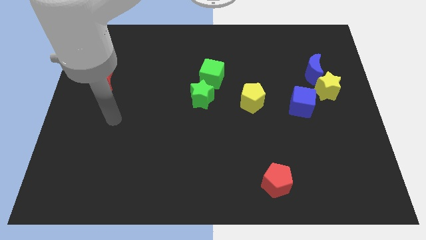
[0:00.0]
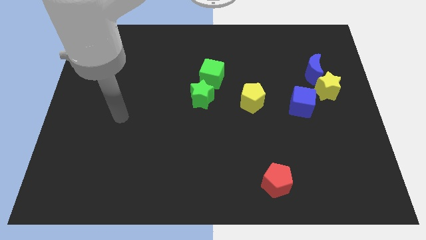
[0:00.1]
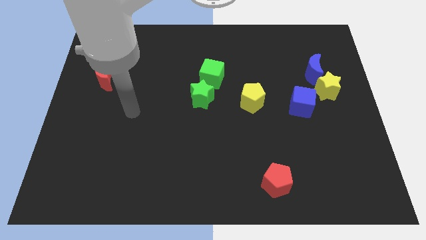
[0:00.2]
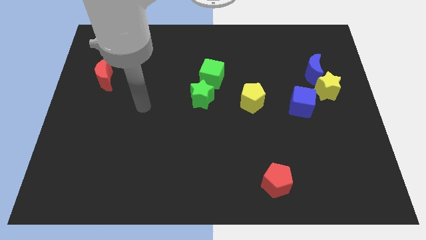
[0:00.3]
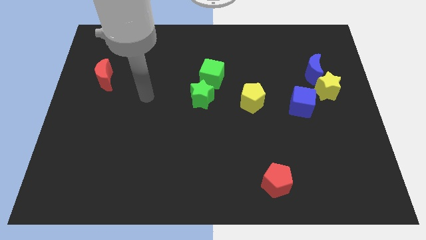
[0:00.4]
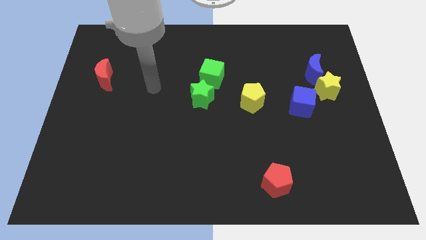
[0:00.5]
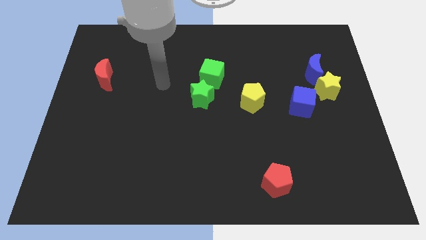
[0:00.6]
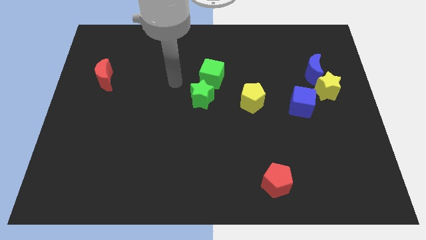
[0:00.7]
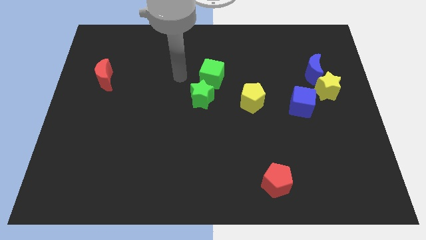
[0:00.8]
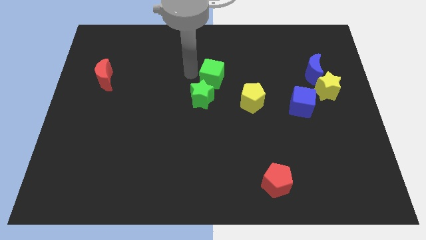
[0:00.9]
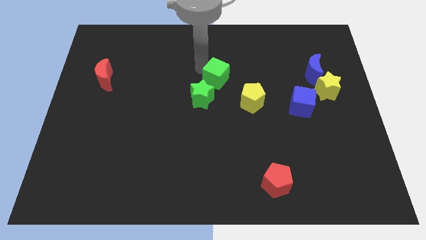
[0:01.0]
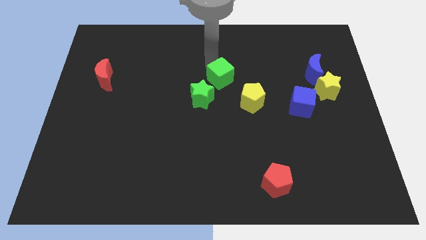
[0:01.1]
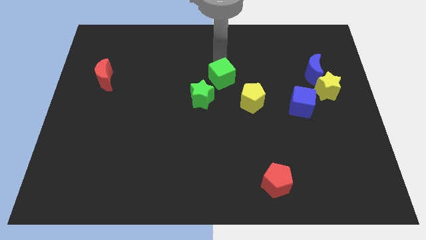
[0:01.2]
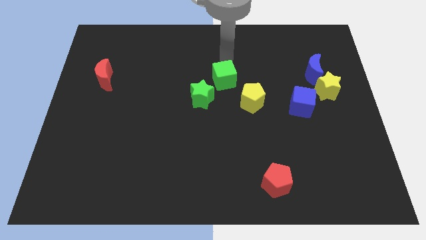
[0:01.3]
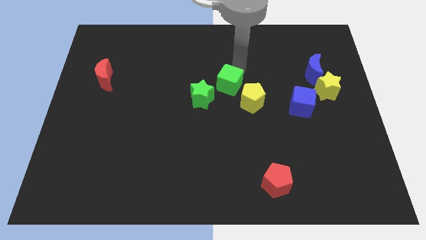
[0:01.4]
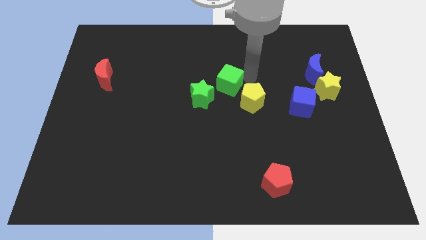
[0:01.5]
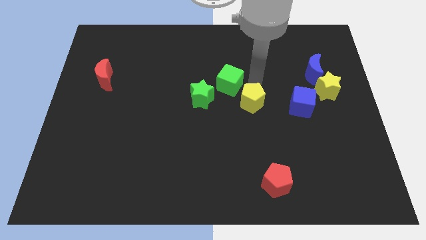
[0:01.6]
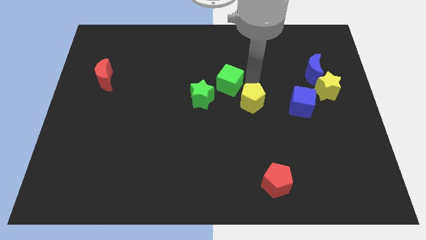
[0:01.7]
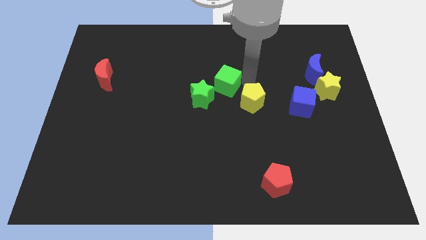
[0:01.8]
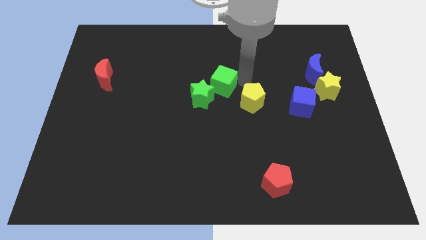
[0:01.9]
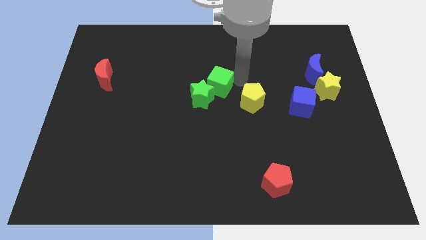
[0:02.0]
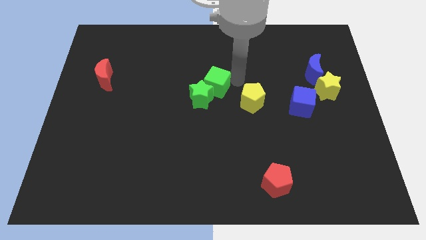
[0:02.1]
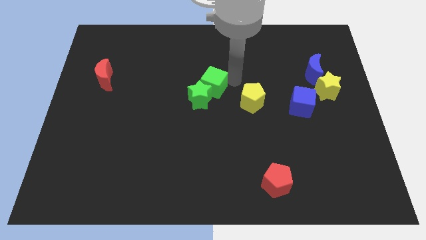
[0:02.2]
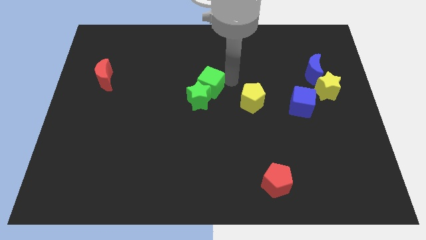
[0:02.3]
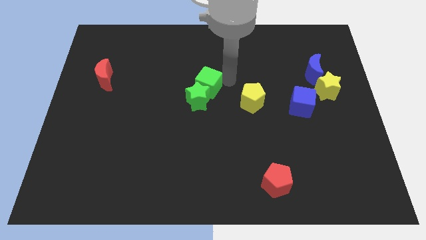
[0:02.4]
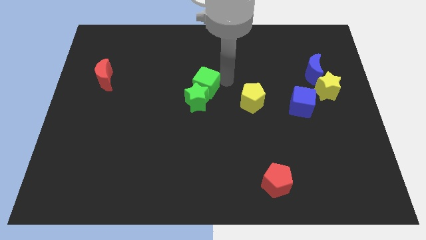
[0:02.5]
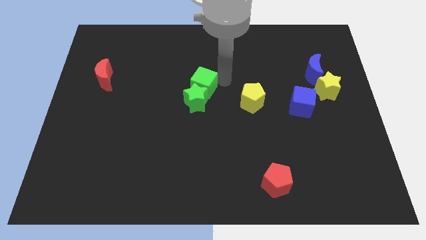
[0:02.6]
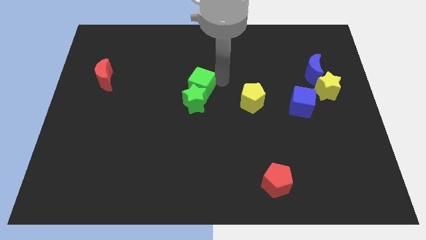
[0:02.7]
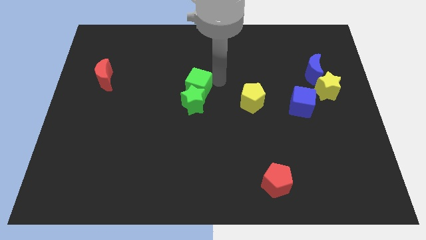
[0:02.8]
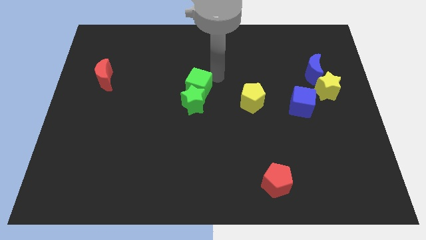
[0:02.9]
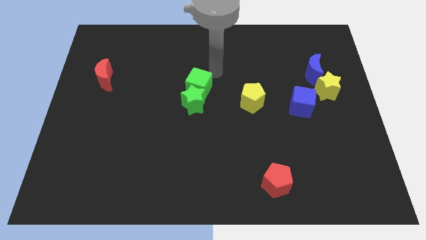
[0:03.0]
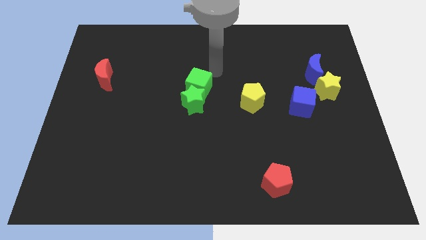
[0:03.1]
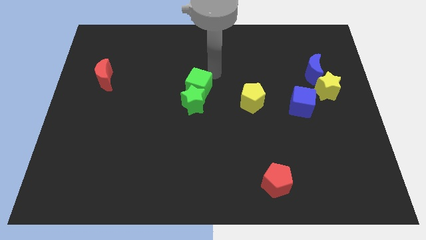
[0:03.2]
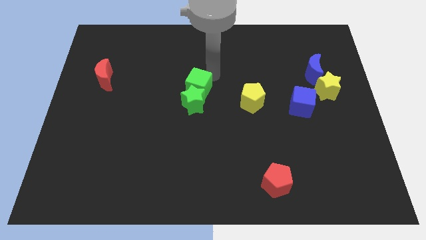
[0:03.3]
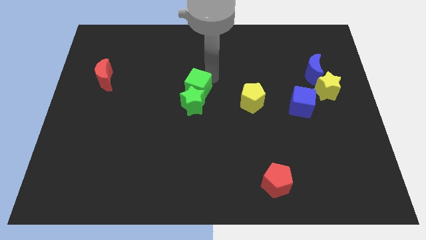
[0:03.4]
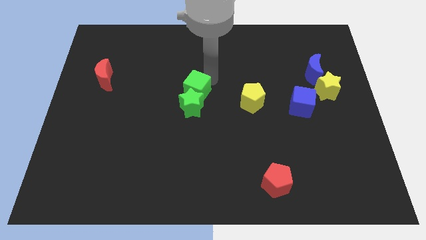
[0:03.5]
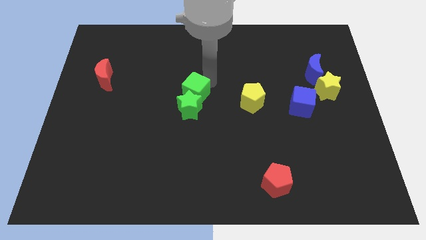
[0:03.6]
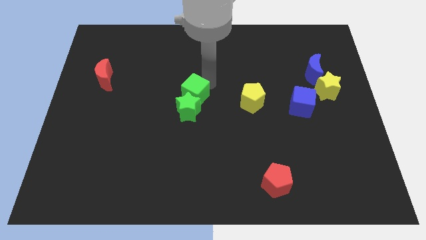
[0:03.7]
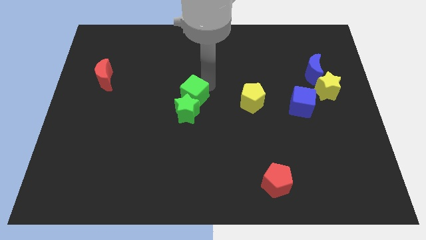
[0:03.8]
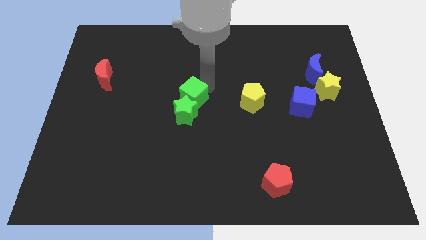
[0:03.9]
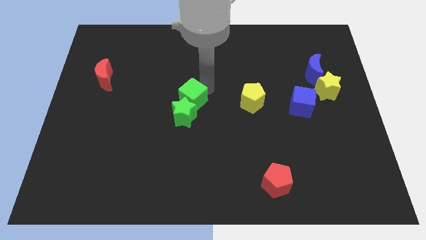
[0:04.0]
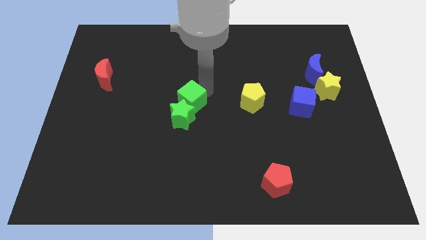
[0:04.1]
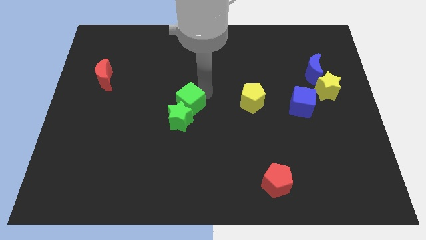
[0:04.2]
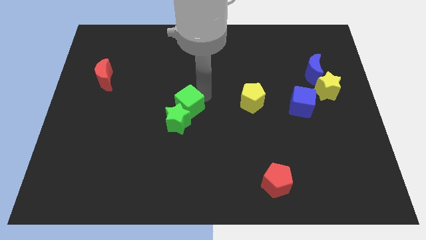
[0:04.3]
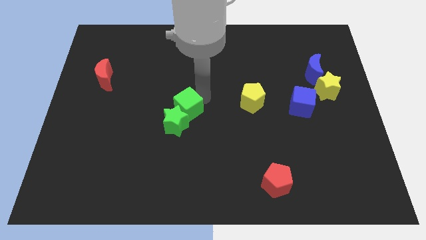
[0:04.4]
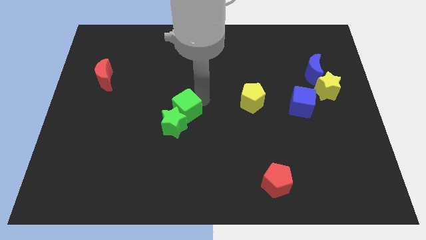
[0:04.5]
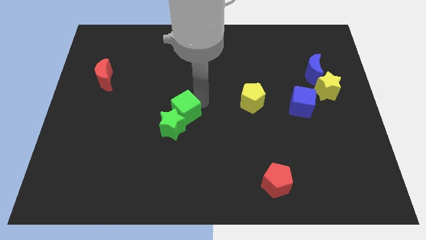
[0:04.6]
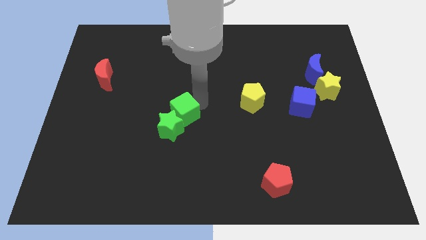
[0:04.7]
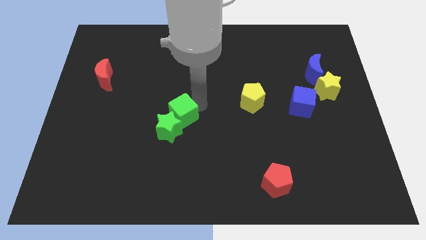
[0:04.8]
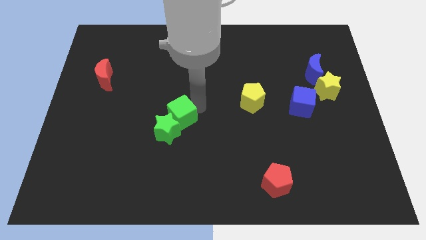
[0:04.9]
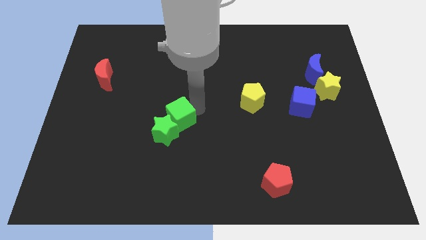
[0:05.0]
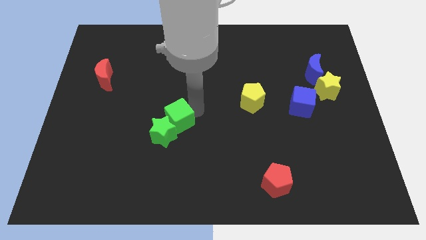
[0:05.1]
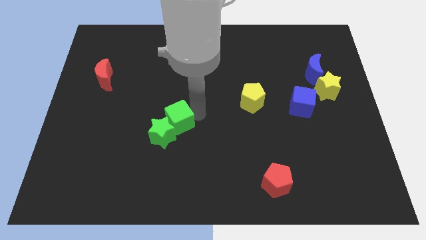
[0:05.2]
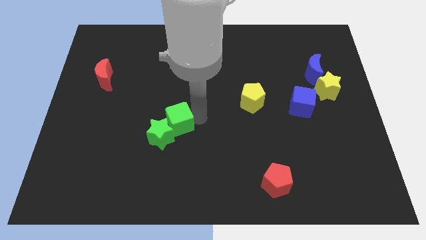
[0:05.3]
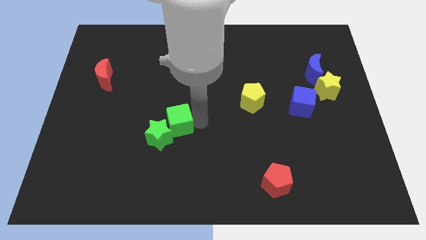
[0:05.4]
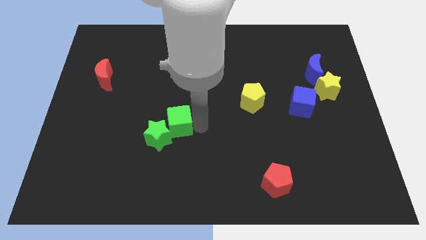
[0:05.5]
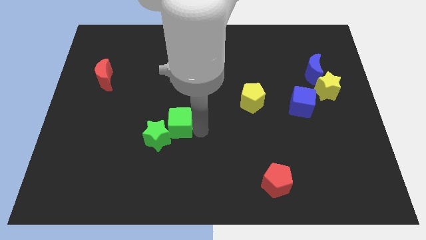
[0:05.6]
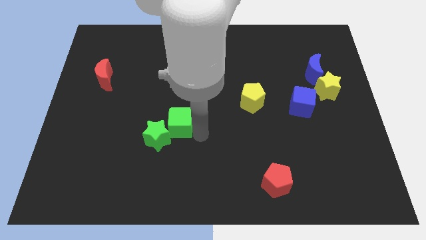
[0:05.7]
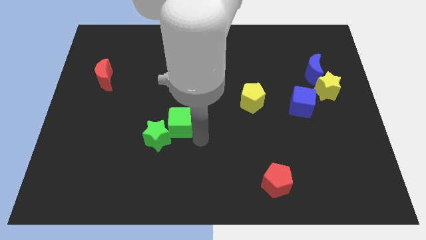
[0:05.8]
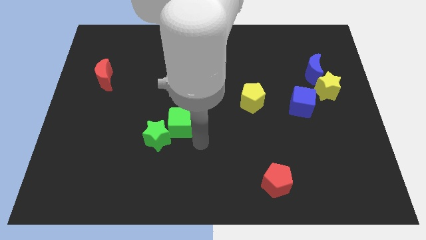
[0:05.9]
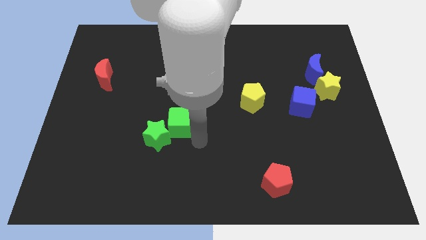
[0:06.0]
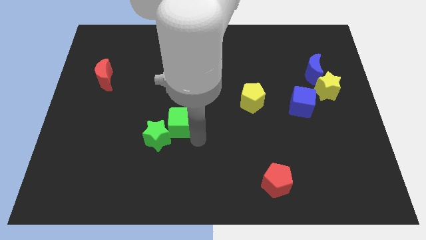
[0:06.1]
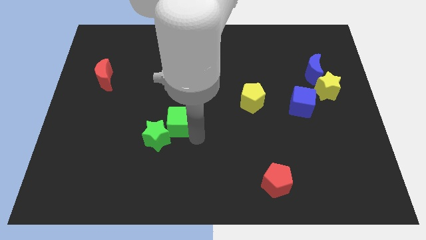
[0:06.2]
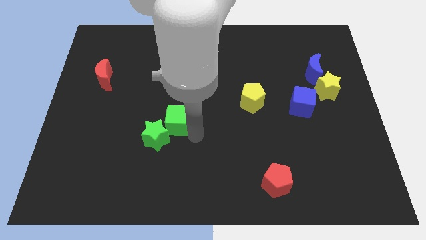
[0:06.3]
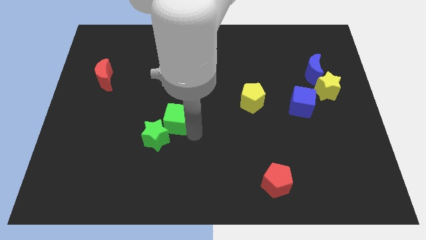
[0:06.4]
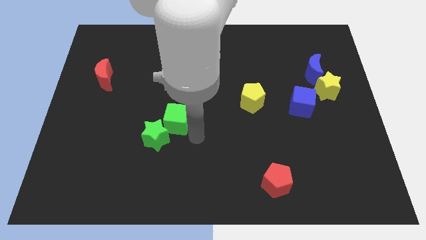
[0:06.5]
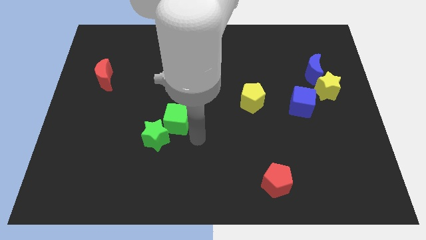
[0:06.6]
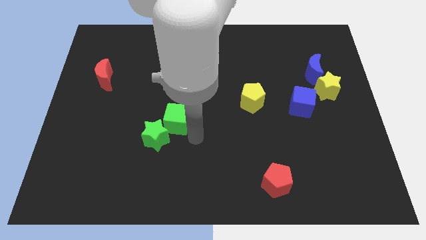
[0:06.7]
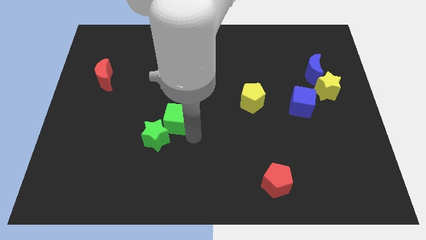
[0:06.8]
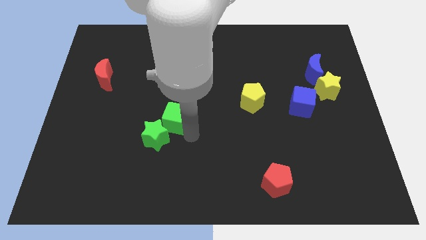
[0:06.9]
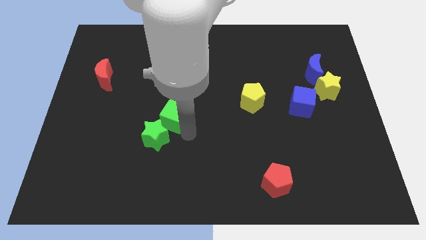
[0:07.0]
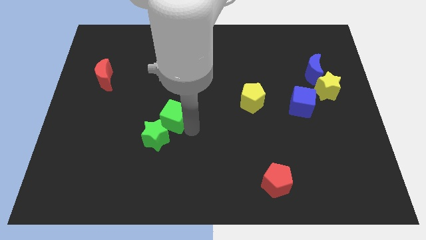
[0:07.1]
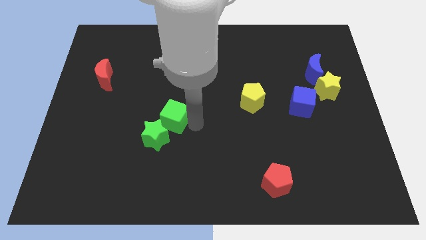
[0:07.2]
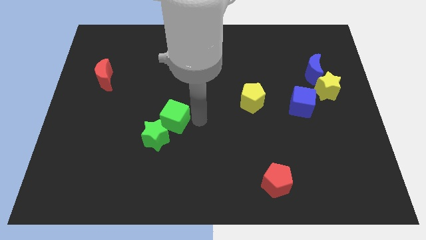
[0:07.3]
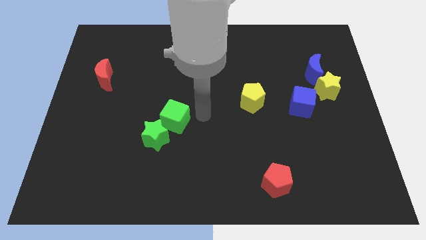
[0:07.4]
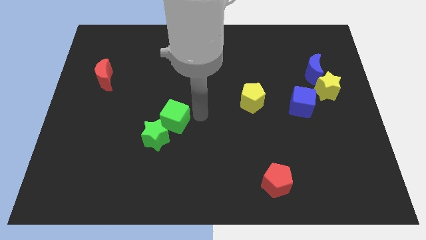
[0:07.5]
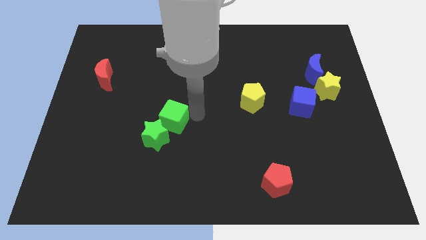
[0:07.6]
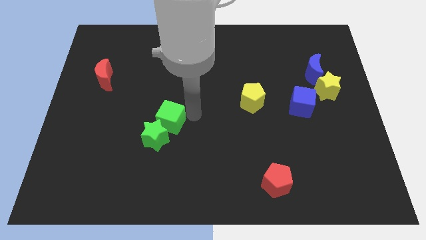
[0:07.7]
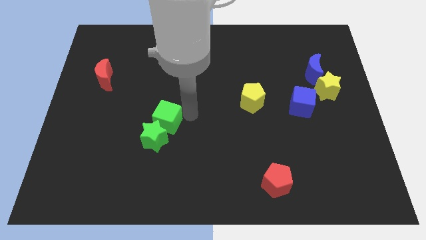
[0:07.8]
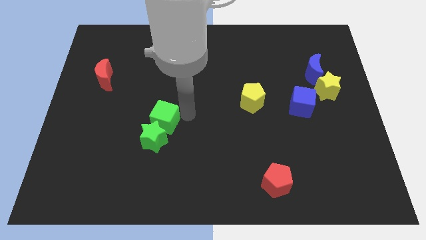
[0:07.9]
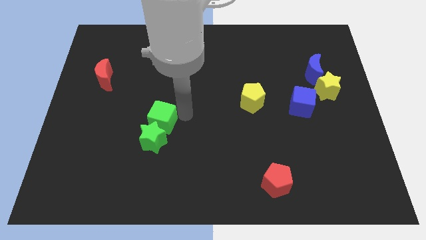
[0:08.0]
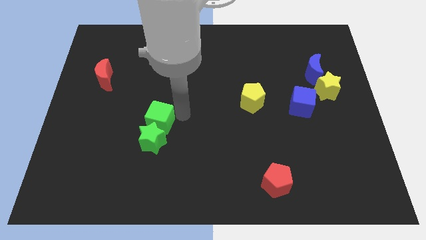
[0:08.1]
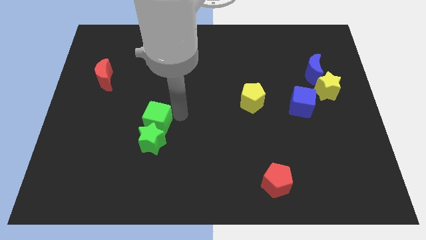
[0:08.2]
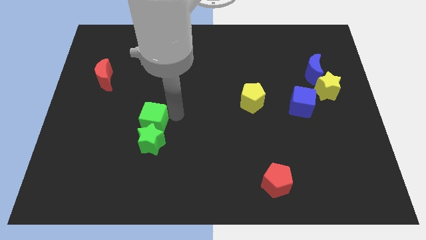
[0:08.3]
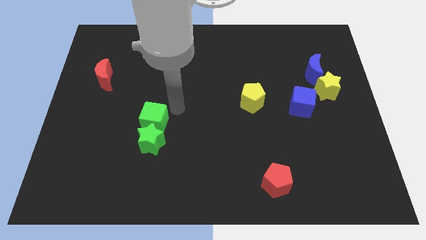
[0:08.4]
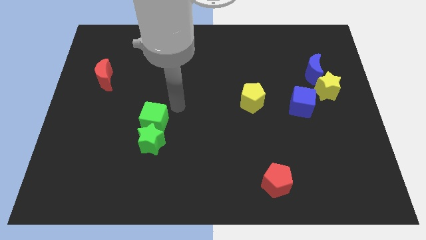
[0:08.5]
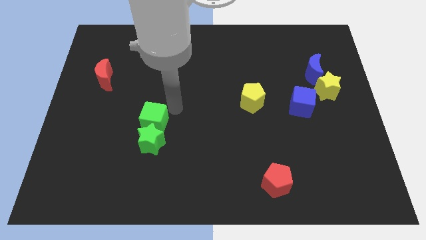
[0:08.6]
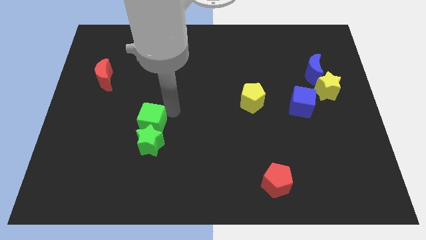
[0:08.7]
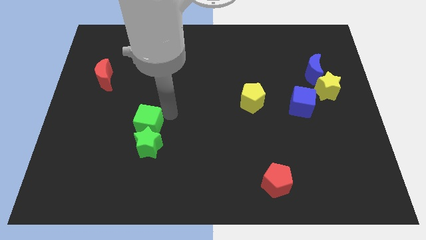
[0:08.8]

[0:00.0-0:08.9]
push the green cube downwards and to the left
